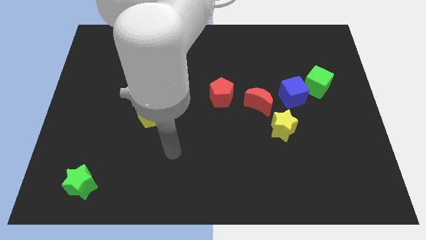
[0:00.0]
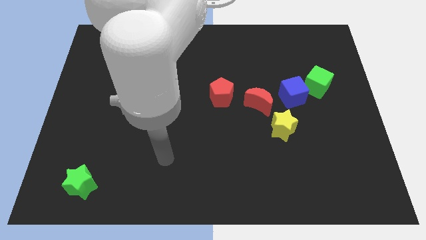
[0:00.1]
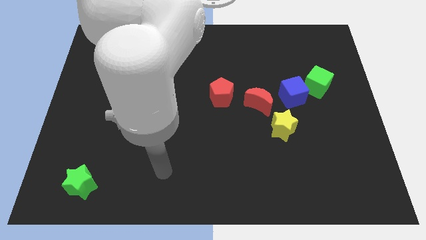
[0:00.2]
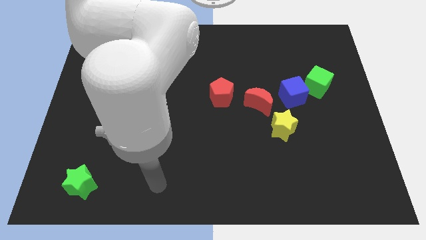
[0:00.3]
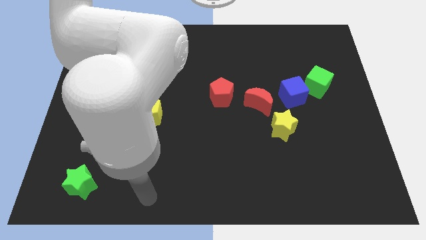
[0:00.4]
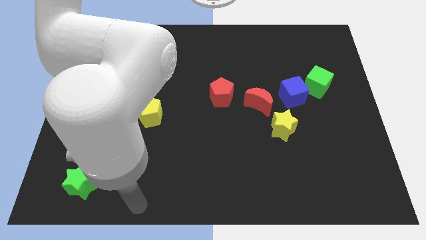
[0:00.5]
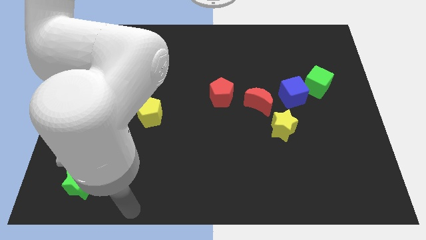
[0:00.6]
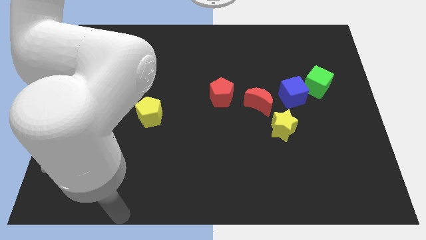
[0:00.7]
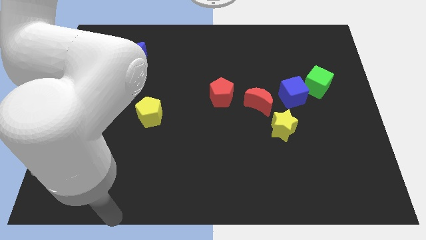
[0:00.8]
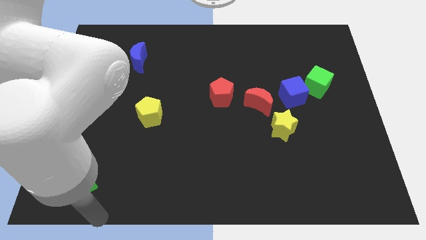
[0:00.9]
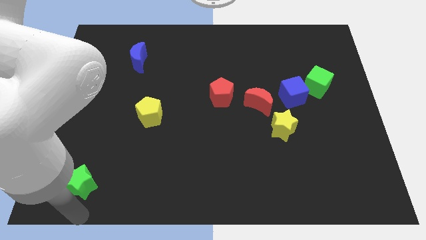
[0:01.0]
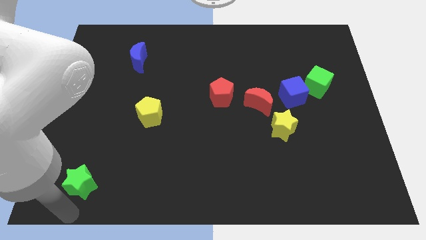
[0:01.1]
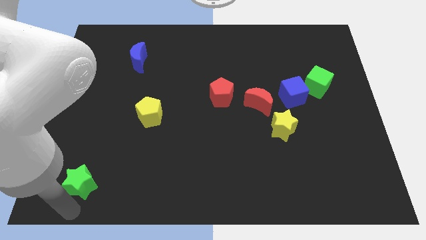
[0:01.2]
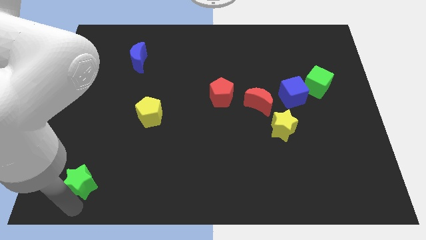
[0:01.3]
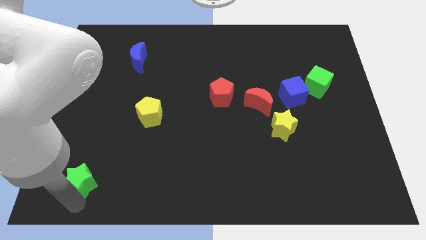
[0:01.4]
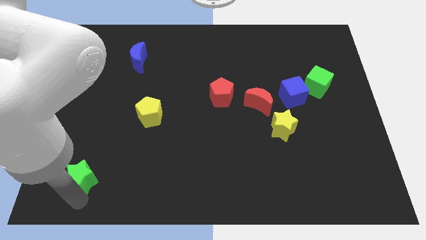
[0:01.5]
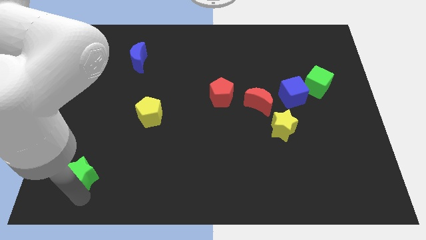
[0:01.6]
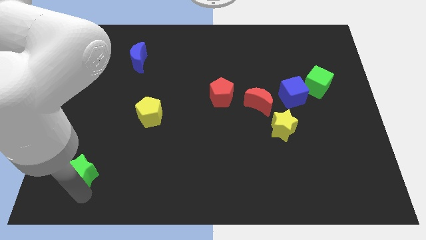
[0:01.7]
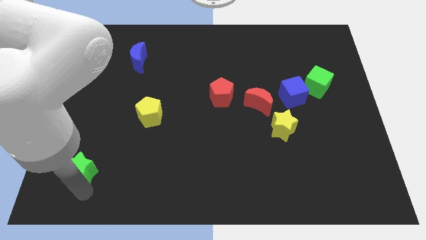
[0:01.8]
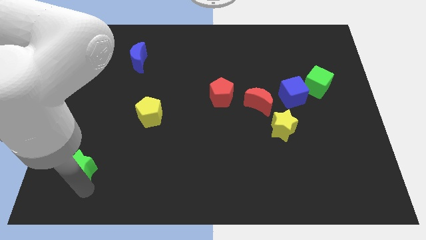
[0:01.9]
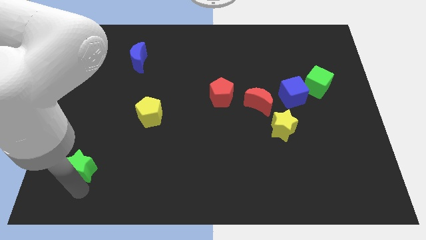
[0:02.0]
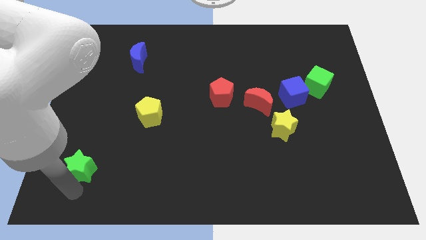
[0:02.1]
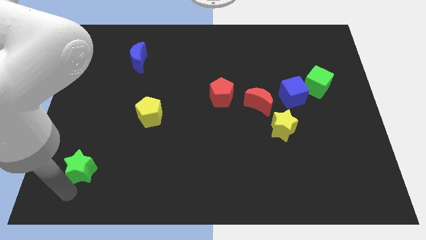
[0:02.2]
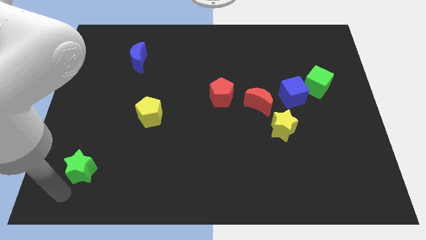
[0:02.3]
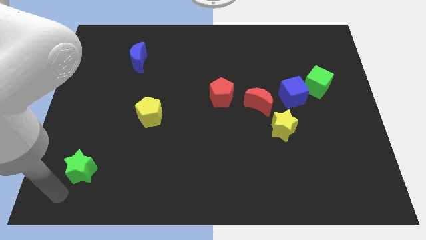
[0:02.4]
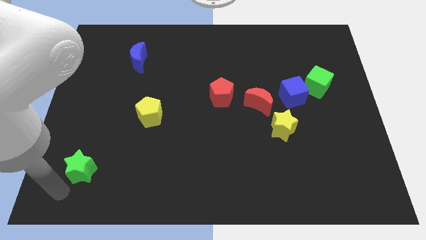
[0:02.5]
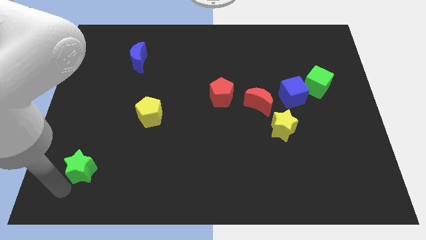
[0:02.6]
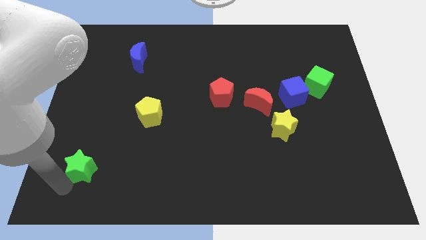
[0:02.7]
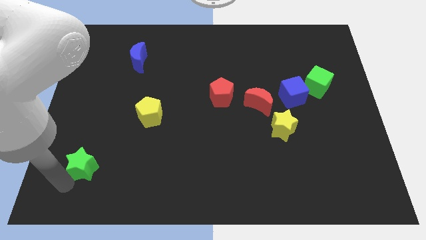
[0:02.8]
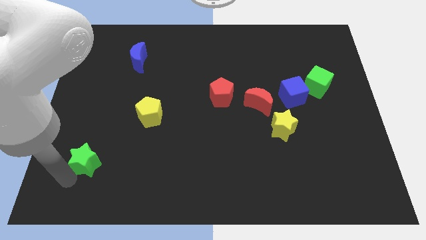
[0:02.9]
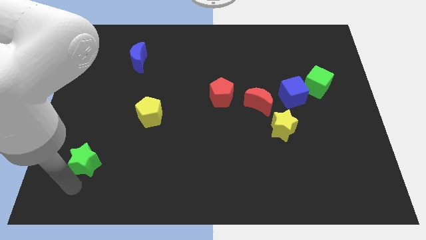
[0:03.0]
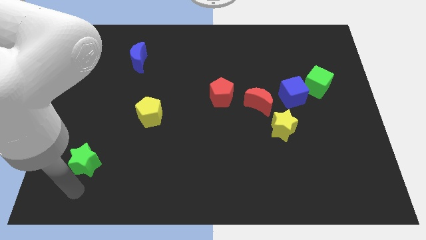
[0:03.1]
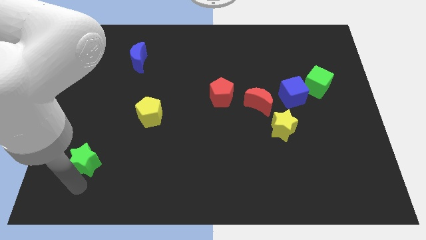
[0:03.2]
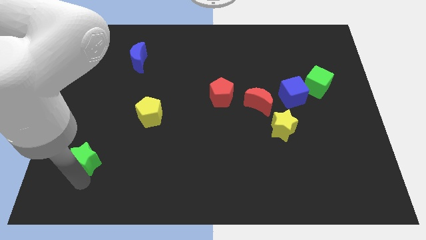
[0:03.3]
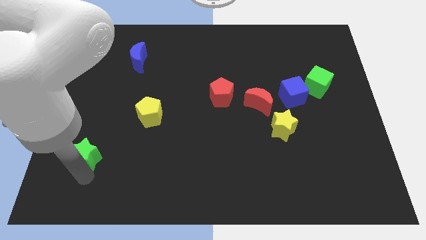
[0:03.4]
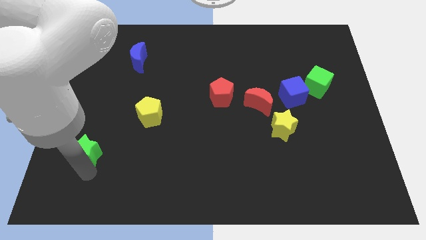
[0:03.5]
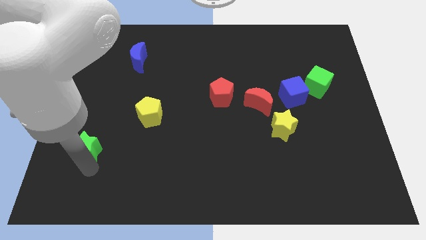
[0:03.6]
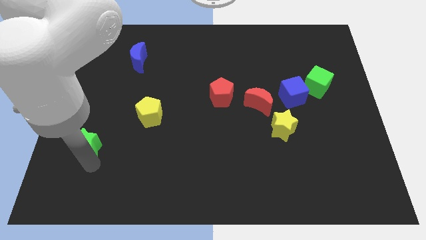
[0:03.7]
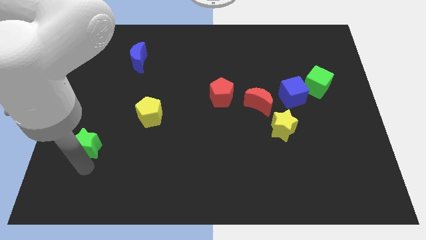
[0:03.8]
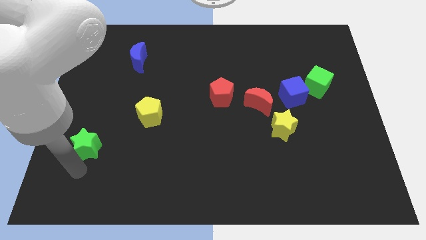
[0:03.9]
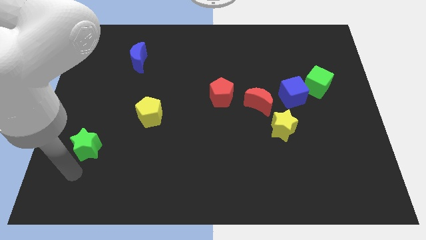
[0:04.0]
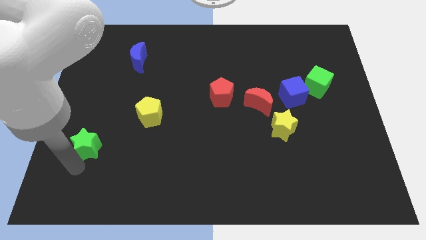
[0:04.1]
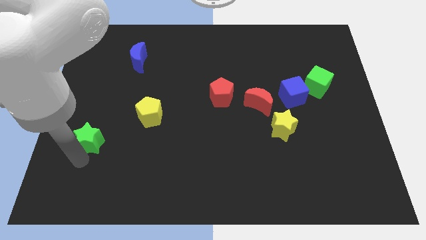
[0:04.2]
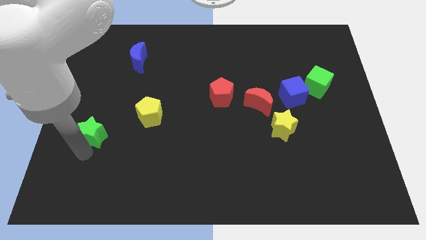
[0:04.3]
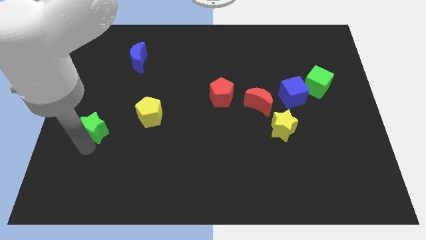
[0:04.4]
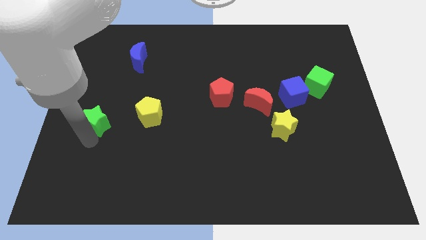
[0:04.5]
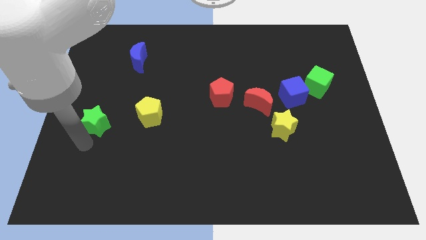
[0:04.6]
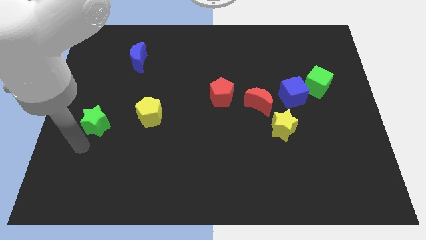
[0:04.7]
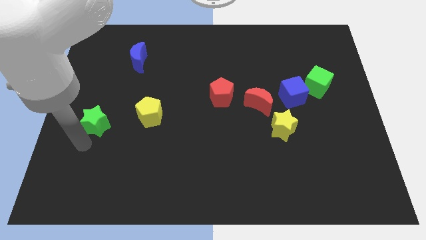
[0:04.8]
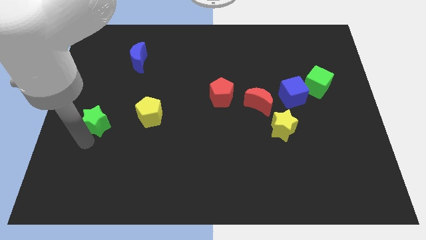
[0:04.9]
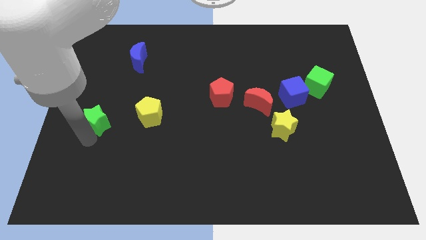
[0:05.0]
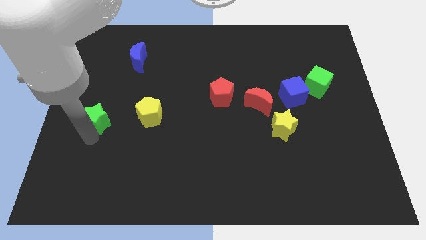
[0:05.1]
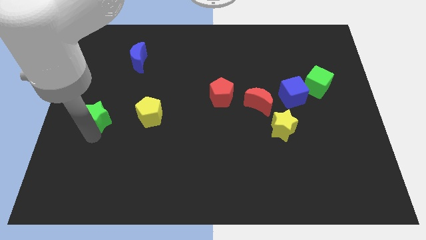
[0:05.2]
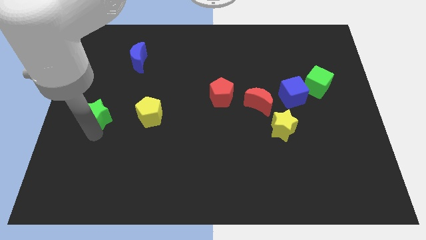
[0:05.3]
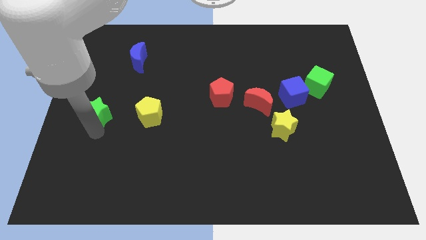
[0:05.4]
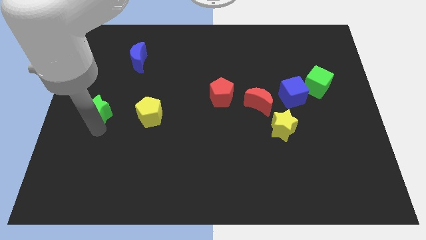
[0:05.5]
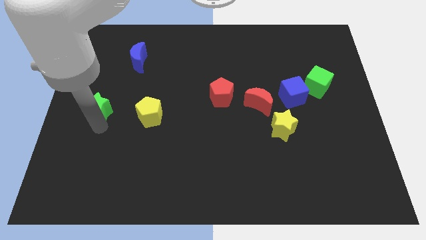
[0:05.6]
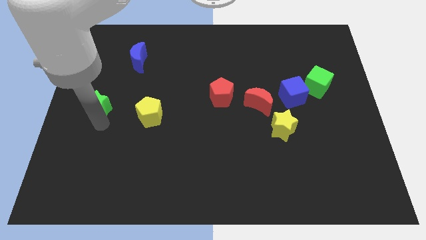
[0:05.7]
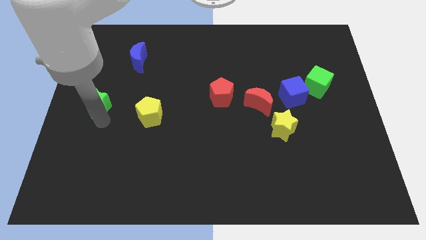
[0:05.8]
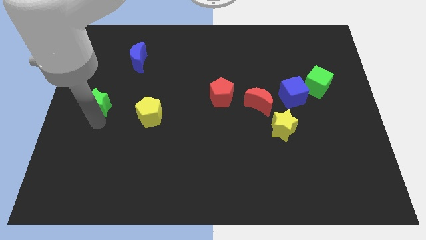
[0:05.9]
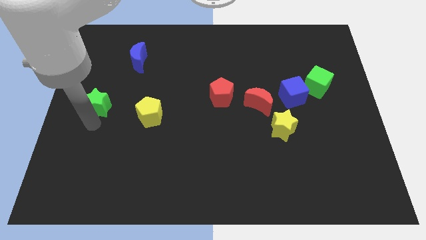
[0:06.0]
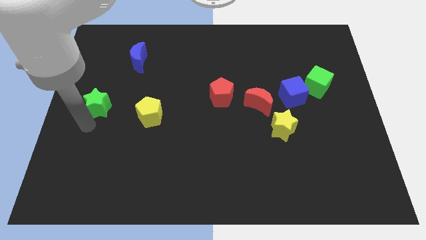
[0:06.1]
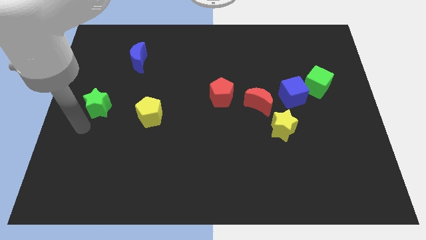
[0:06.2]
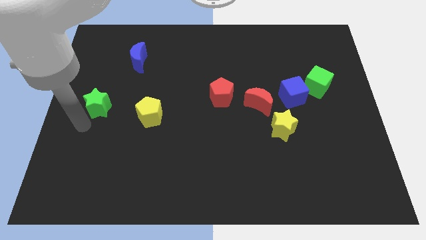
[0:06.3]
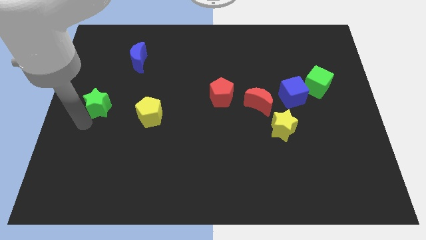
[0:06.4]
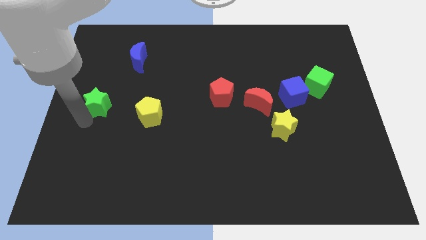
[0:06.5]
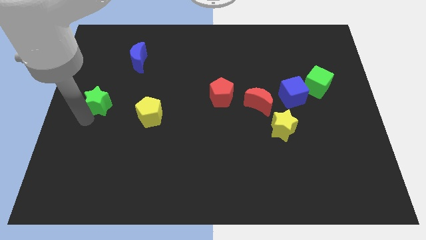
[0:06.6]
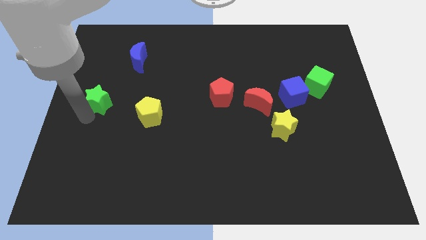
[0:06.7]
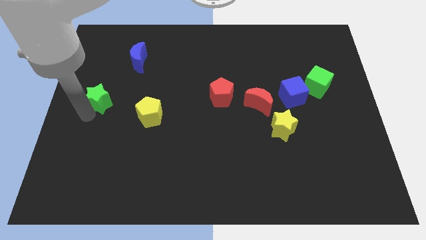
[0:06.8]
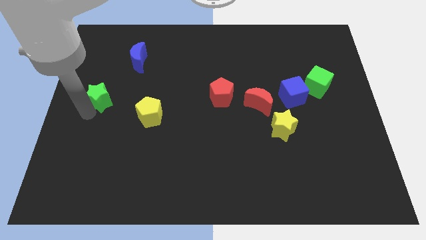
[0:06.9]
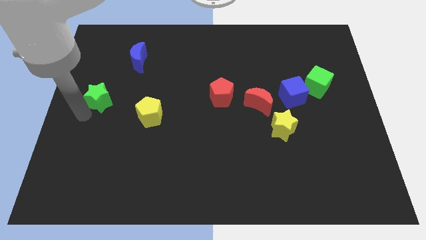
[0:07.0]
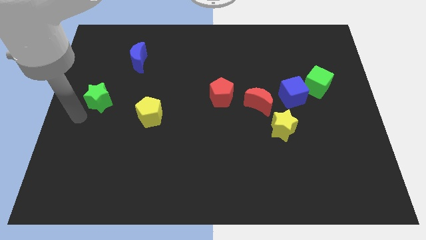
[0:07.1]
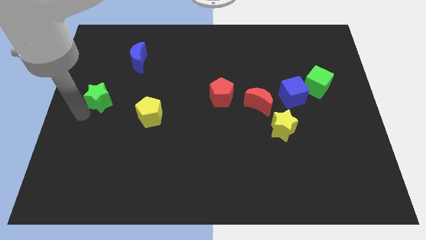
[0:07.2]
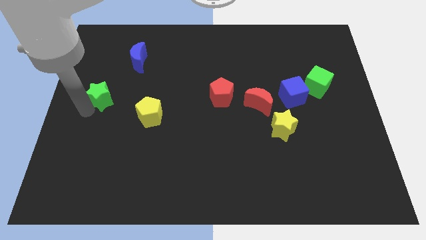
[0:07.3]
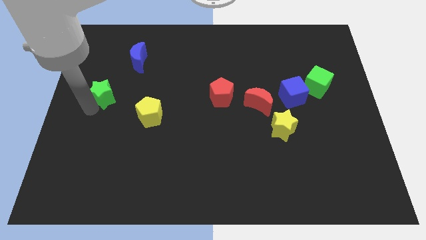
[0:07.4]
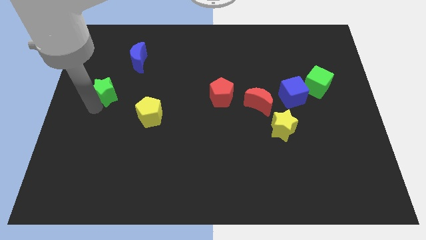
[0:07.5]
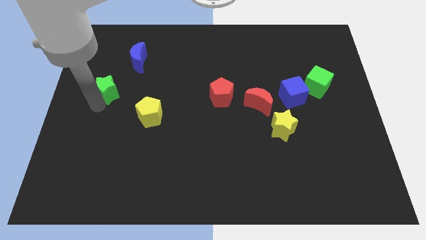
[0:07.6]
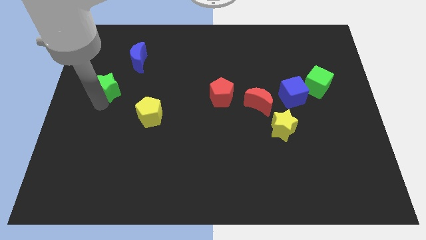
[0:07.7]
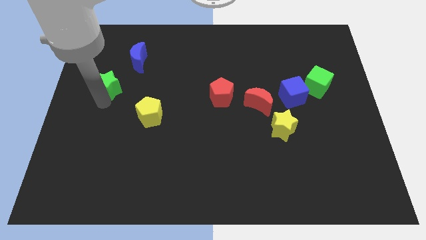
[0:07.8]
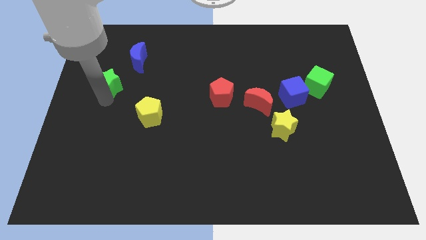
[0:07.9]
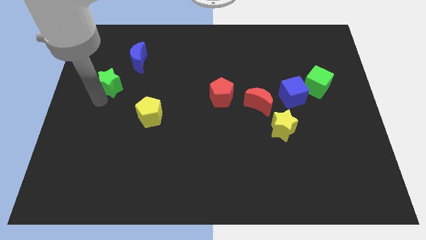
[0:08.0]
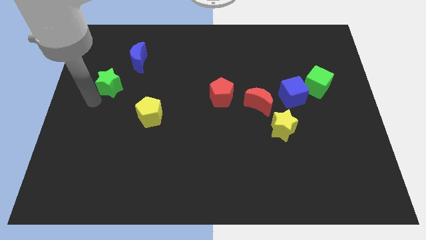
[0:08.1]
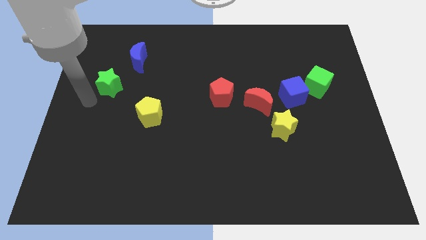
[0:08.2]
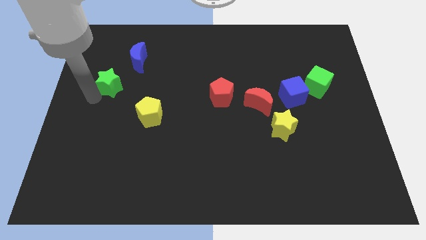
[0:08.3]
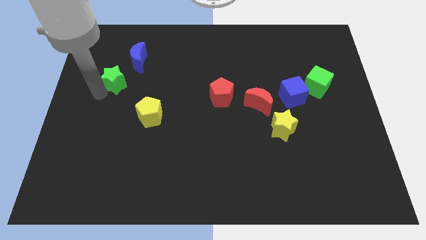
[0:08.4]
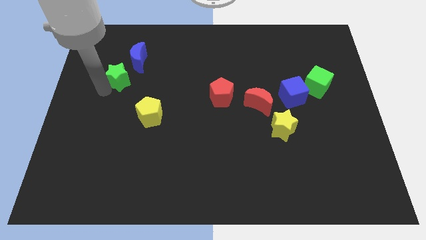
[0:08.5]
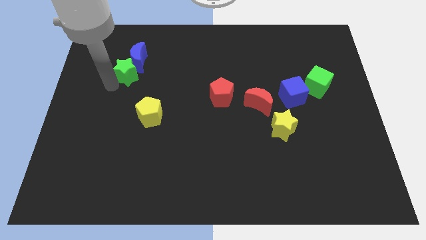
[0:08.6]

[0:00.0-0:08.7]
slide the green star towards the blue moon
